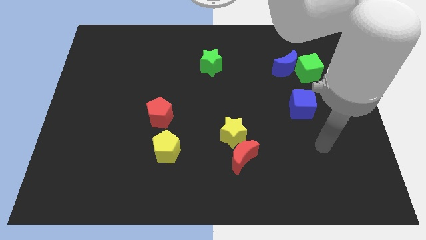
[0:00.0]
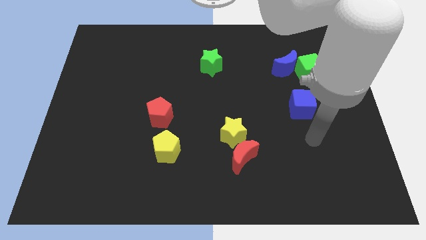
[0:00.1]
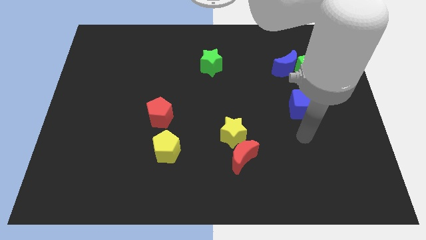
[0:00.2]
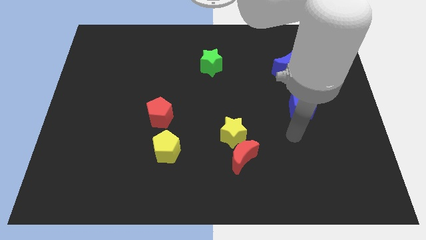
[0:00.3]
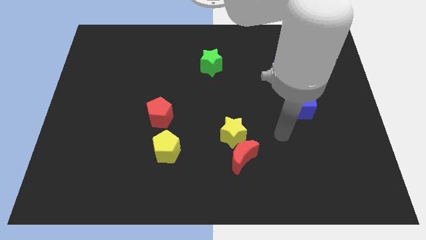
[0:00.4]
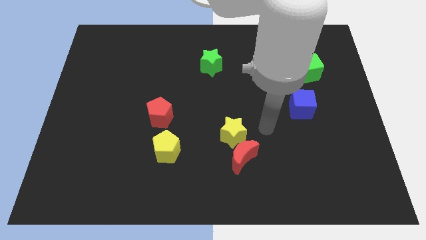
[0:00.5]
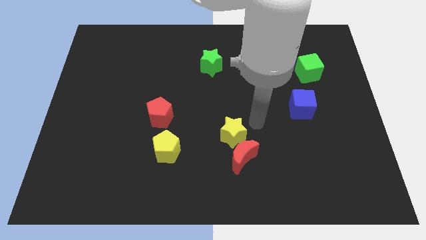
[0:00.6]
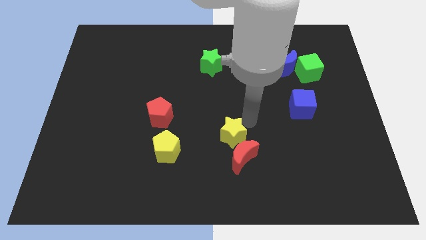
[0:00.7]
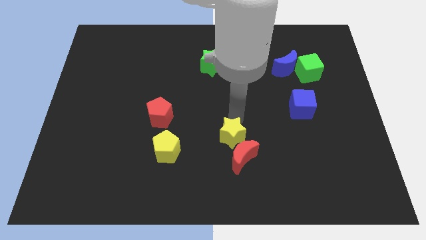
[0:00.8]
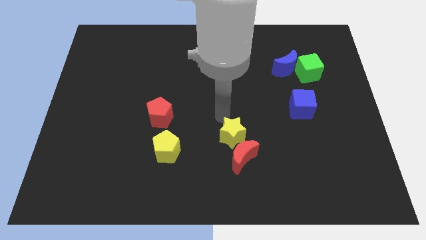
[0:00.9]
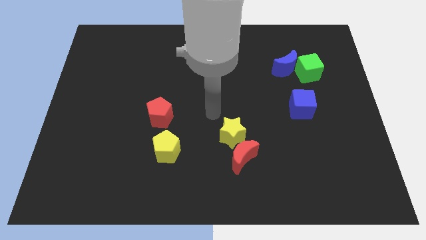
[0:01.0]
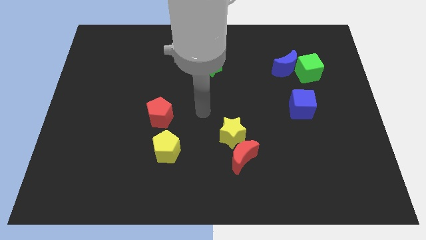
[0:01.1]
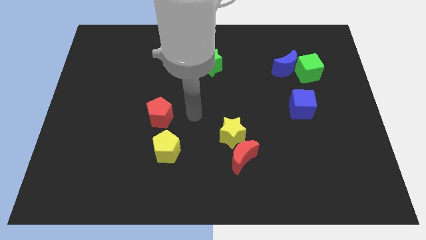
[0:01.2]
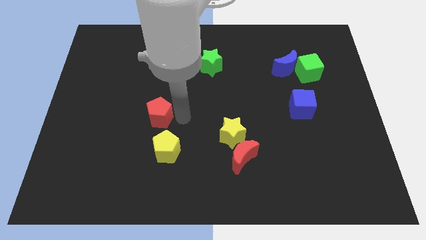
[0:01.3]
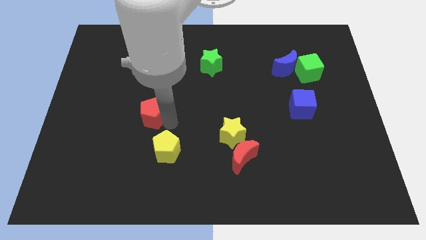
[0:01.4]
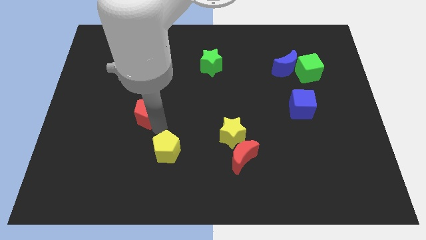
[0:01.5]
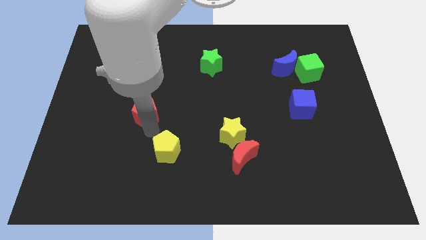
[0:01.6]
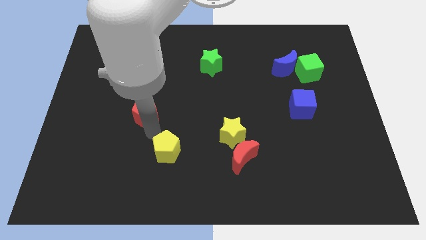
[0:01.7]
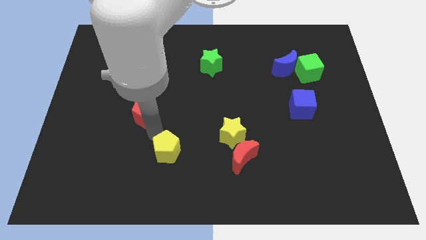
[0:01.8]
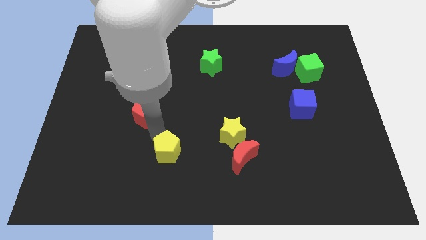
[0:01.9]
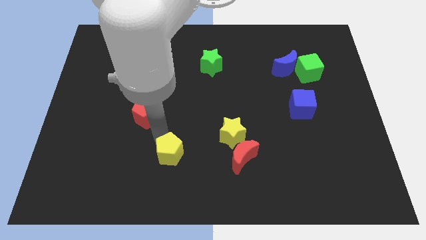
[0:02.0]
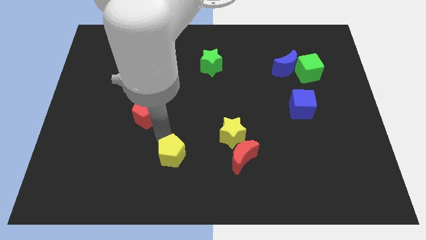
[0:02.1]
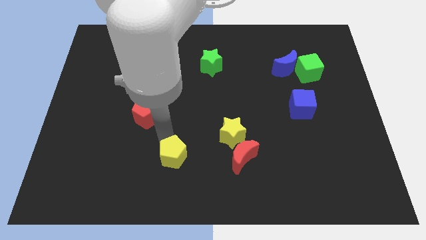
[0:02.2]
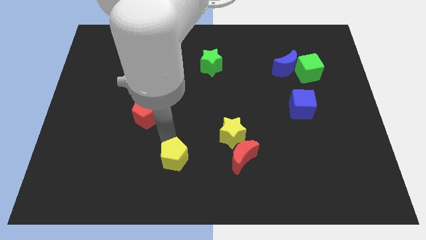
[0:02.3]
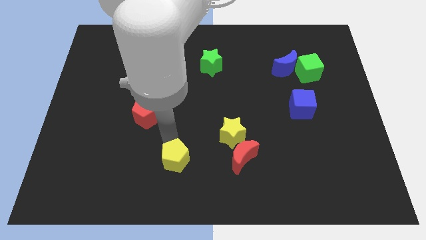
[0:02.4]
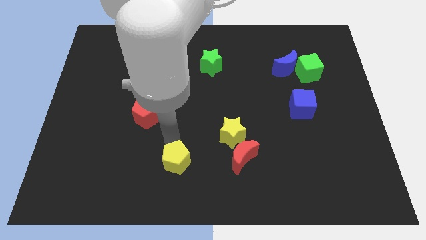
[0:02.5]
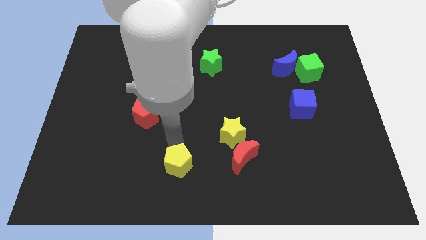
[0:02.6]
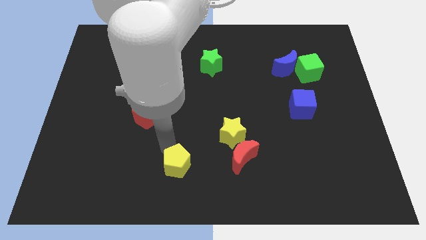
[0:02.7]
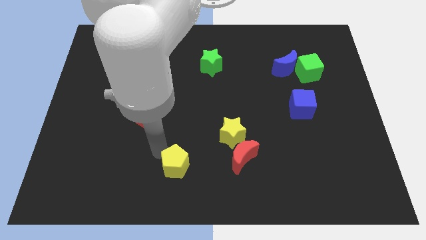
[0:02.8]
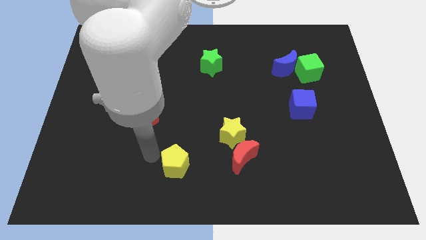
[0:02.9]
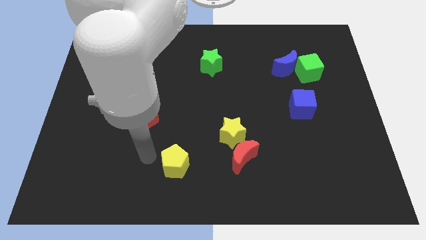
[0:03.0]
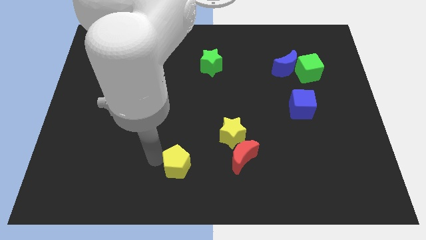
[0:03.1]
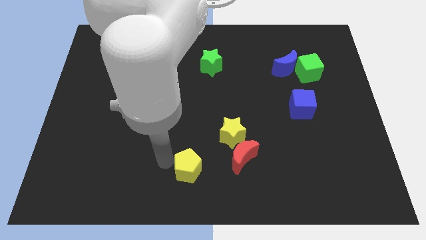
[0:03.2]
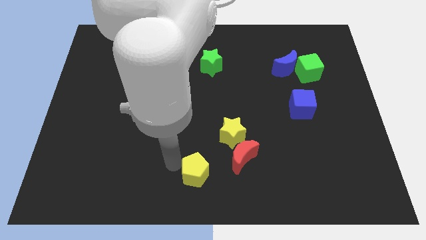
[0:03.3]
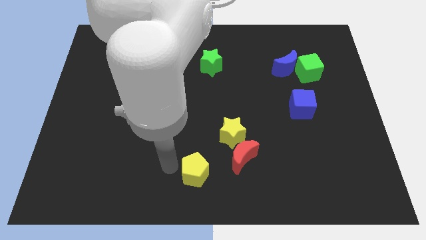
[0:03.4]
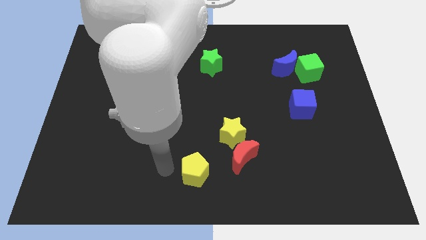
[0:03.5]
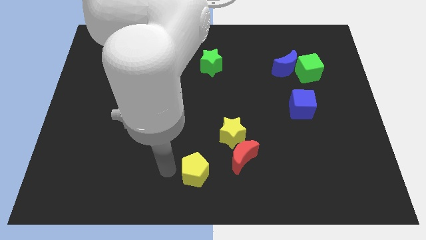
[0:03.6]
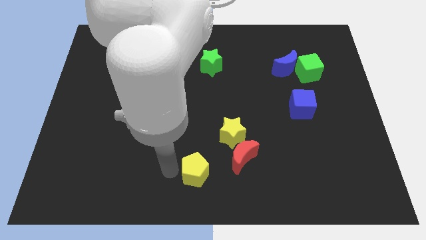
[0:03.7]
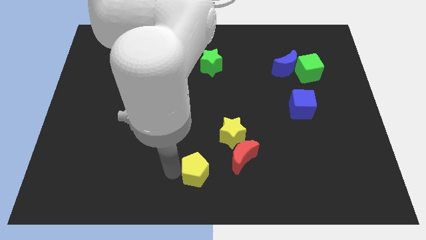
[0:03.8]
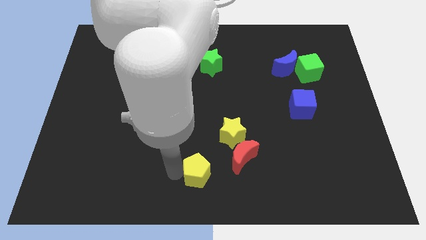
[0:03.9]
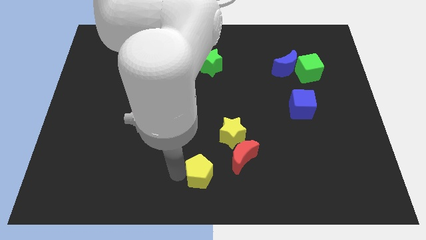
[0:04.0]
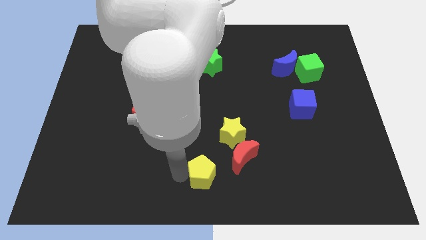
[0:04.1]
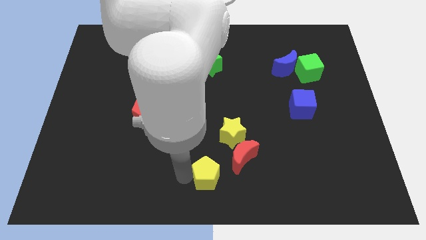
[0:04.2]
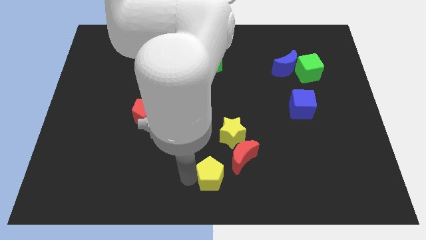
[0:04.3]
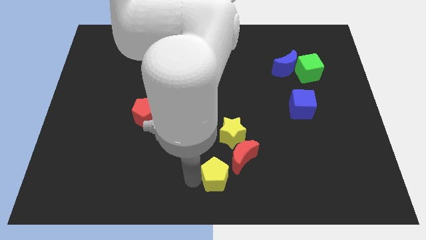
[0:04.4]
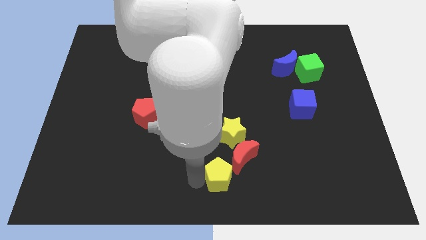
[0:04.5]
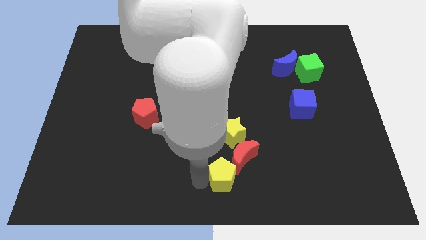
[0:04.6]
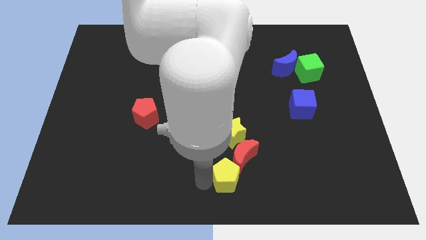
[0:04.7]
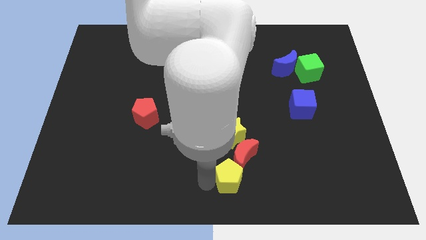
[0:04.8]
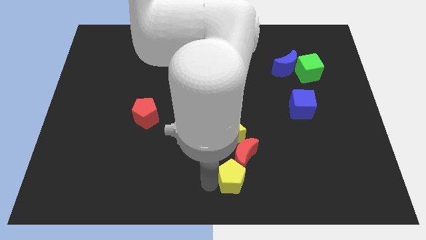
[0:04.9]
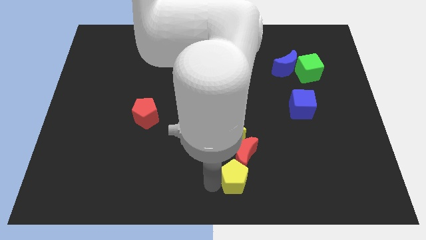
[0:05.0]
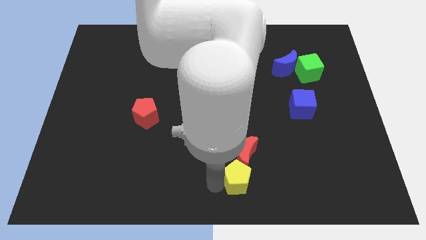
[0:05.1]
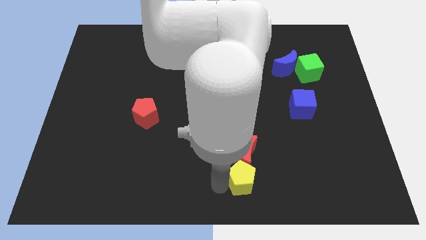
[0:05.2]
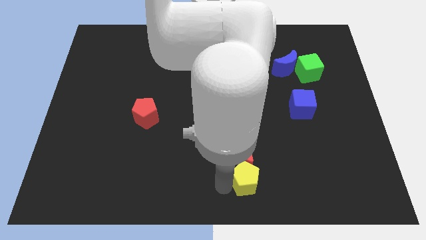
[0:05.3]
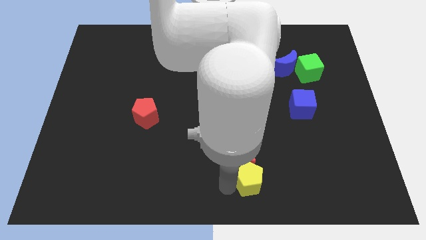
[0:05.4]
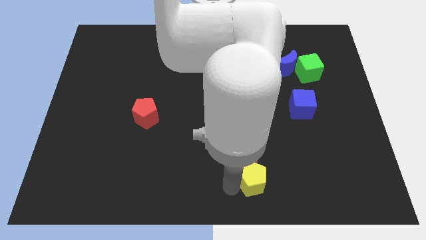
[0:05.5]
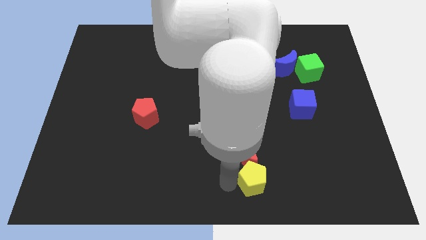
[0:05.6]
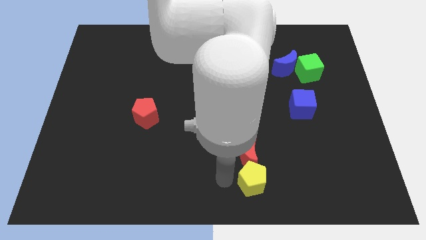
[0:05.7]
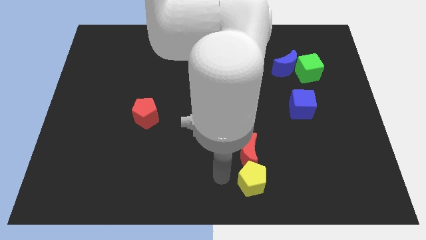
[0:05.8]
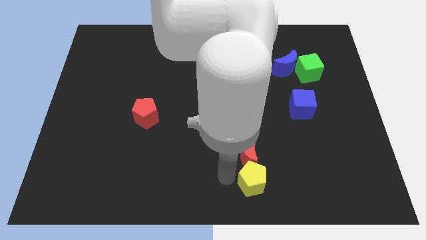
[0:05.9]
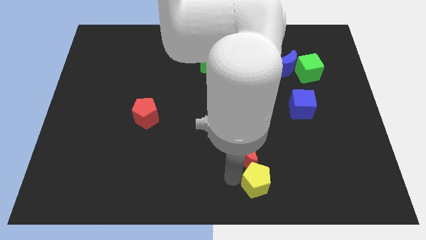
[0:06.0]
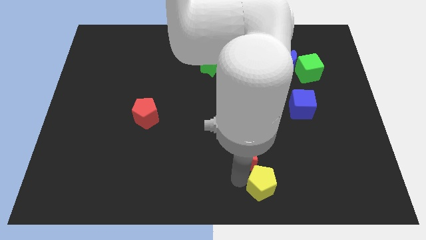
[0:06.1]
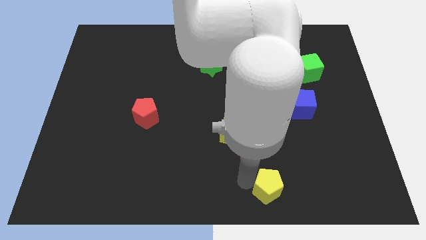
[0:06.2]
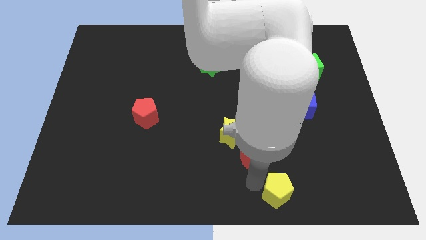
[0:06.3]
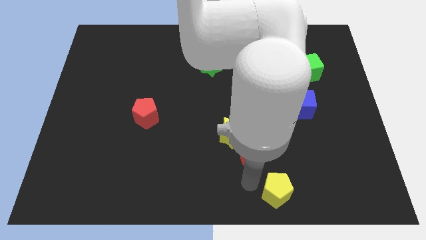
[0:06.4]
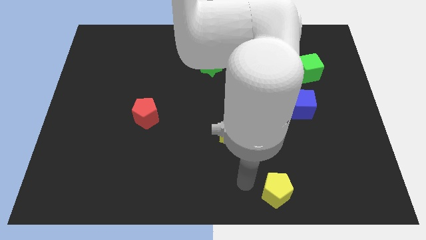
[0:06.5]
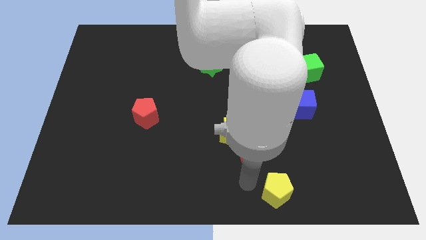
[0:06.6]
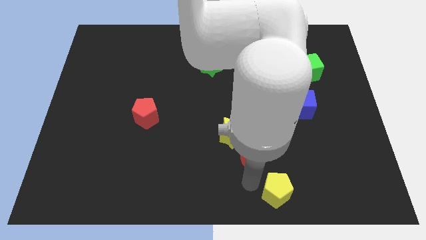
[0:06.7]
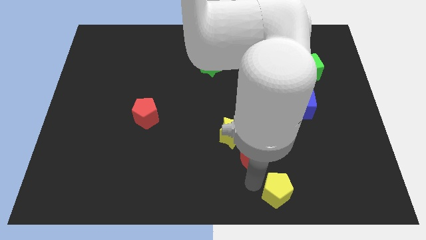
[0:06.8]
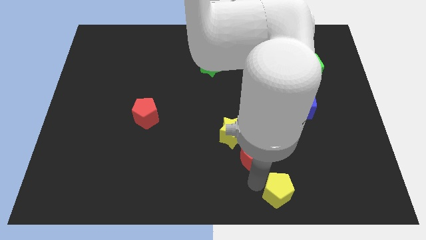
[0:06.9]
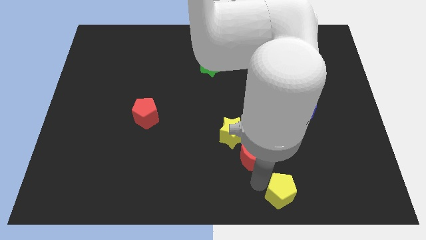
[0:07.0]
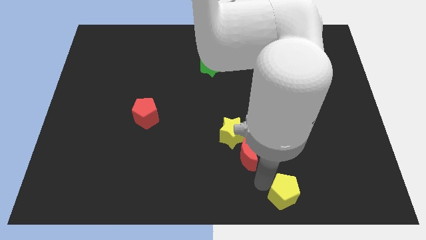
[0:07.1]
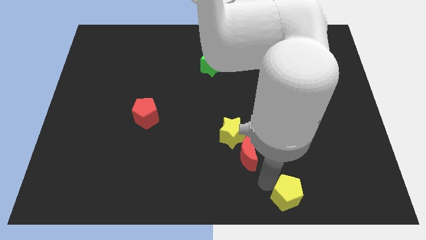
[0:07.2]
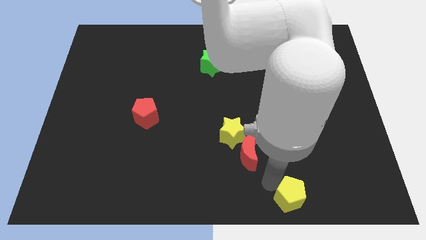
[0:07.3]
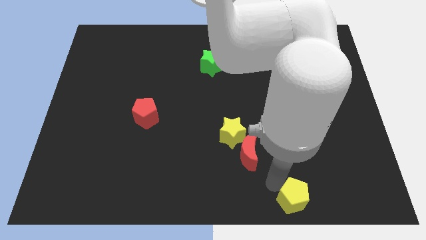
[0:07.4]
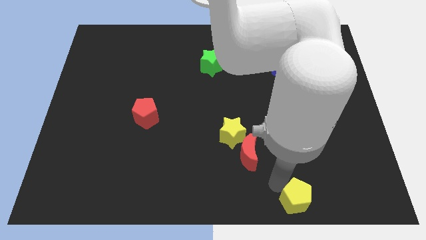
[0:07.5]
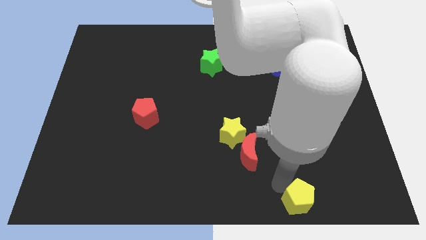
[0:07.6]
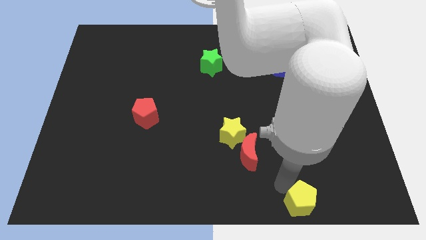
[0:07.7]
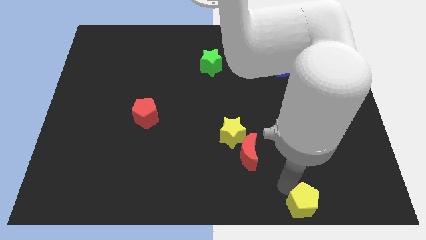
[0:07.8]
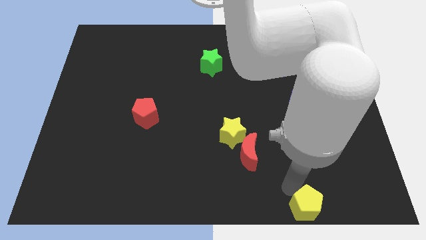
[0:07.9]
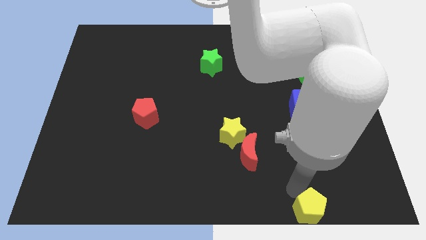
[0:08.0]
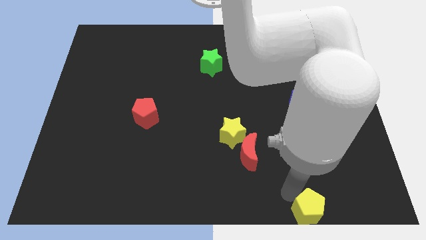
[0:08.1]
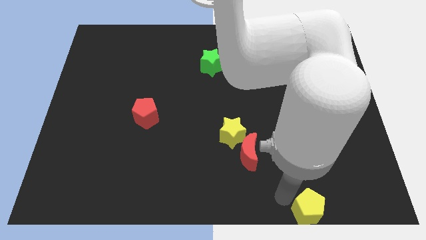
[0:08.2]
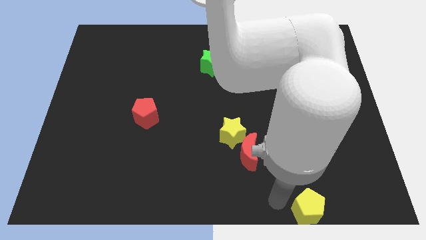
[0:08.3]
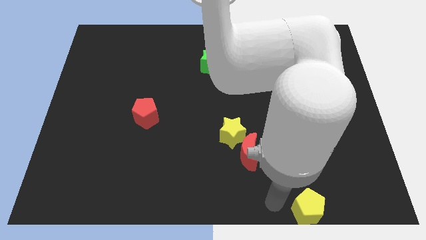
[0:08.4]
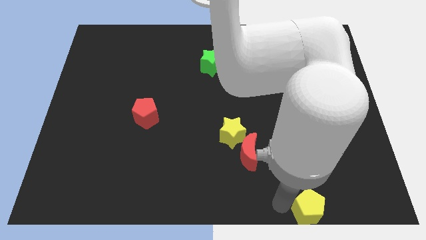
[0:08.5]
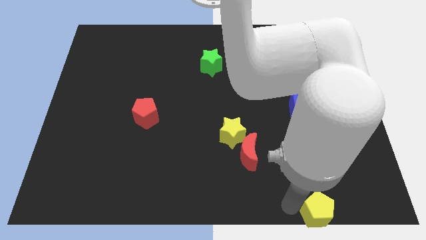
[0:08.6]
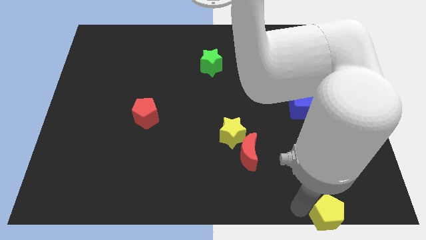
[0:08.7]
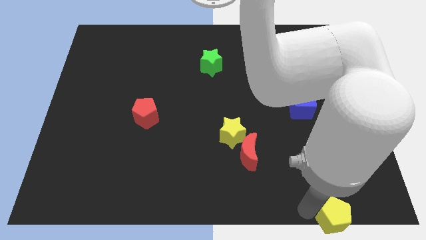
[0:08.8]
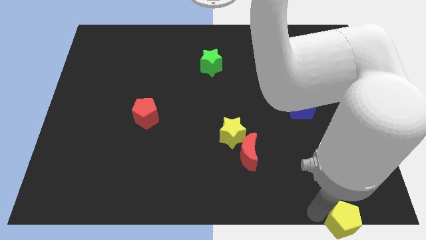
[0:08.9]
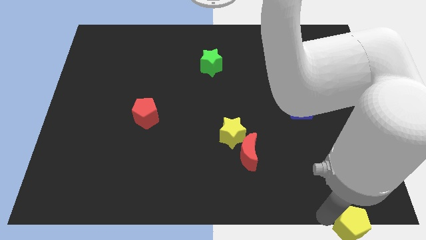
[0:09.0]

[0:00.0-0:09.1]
push the yellow pentagon to the bottom right corner
